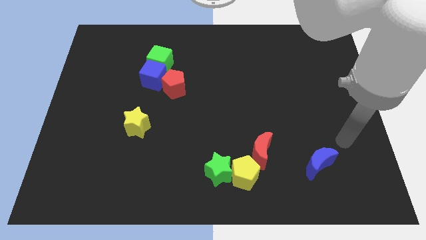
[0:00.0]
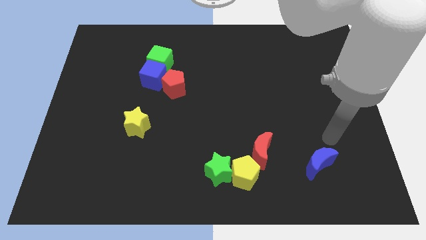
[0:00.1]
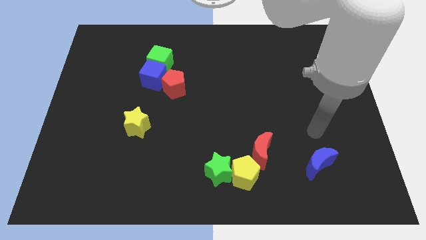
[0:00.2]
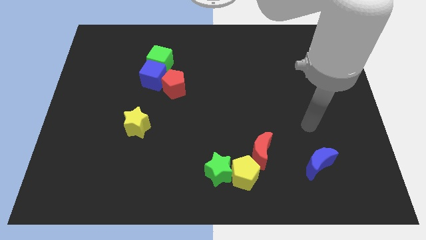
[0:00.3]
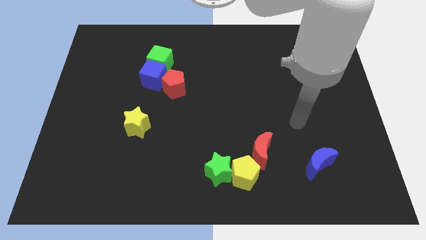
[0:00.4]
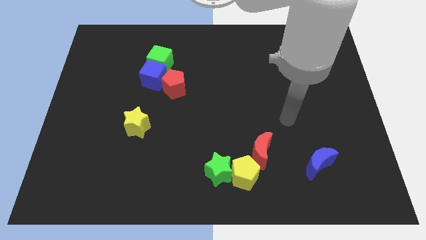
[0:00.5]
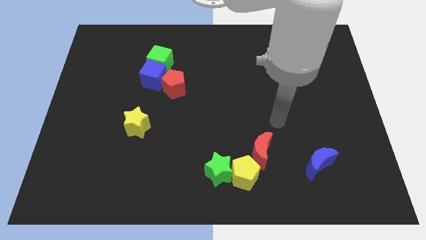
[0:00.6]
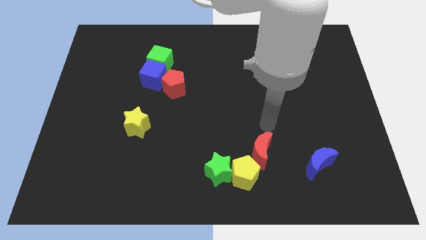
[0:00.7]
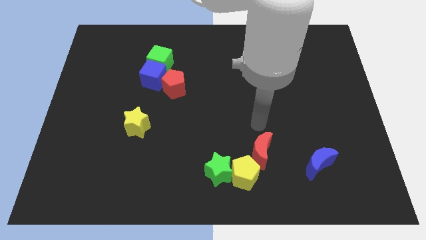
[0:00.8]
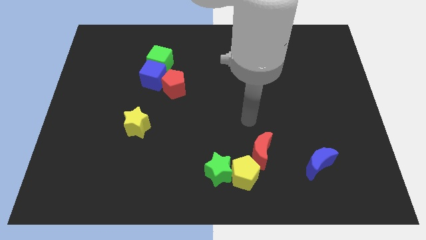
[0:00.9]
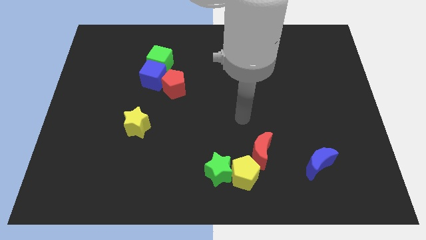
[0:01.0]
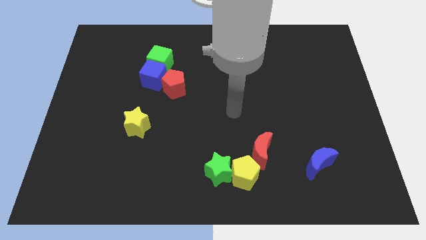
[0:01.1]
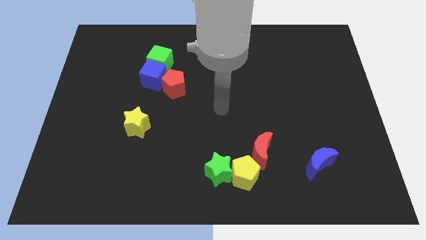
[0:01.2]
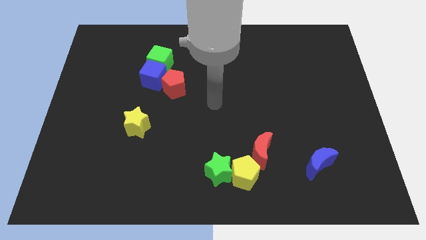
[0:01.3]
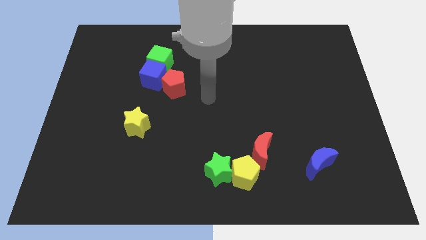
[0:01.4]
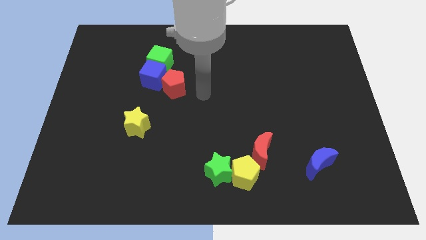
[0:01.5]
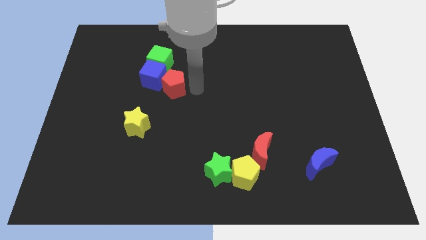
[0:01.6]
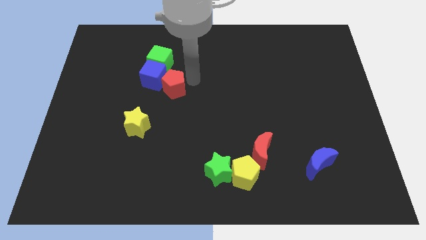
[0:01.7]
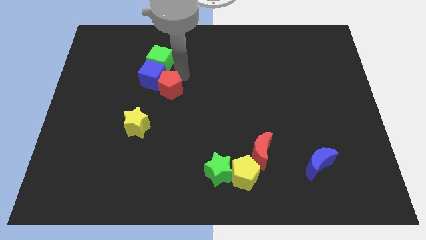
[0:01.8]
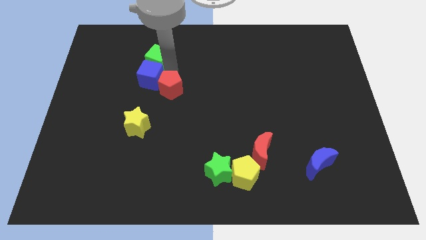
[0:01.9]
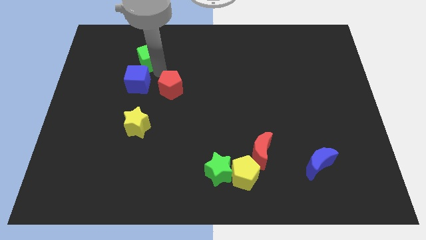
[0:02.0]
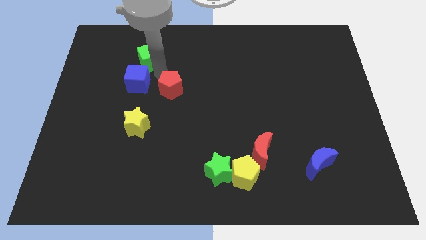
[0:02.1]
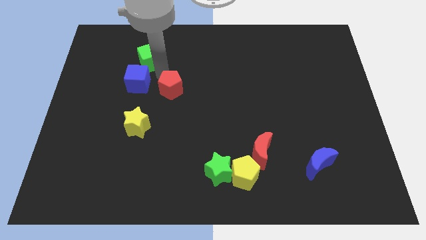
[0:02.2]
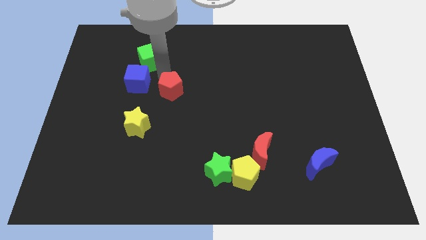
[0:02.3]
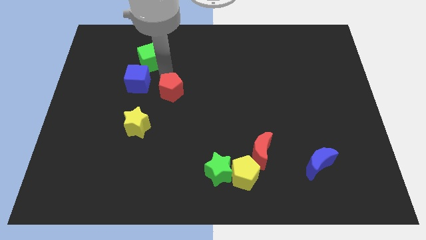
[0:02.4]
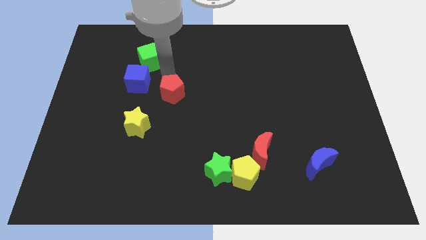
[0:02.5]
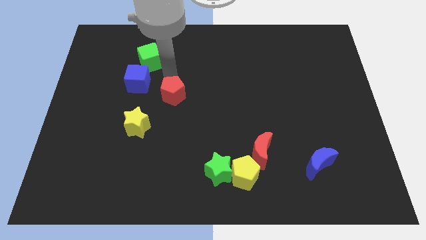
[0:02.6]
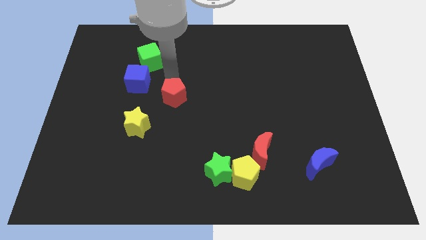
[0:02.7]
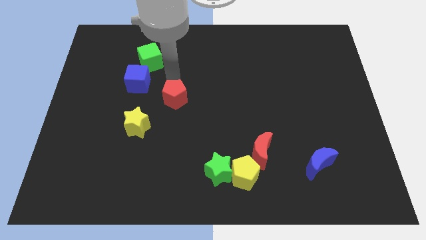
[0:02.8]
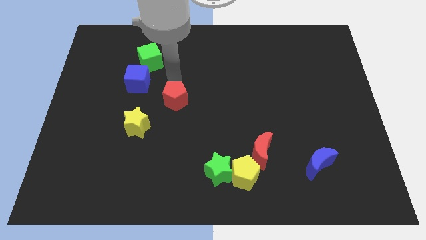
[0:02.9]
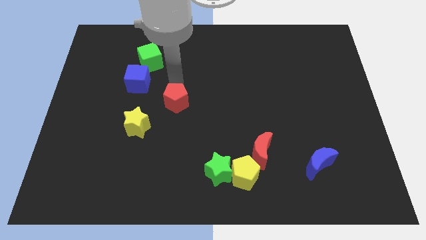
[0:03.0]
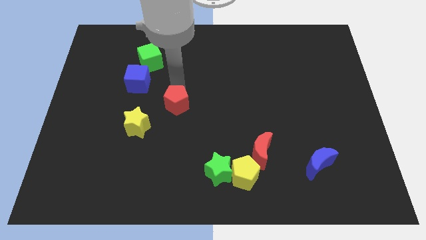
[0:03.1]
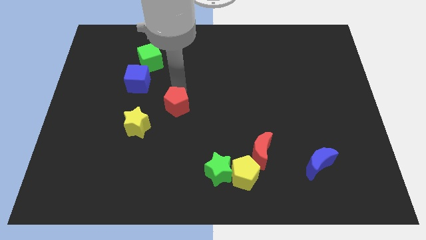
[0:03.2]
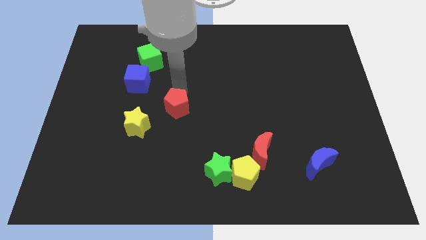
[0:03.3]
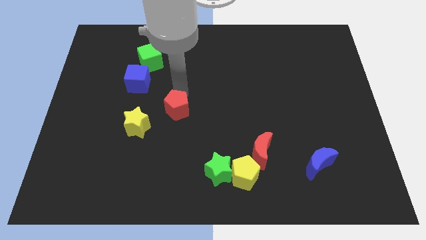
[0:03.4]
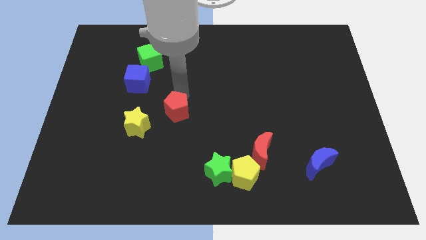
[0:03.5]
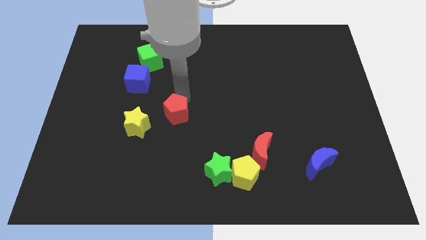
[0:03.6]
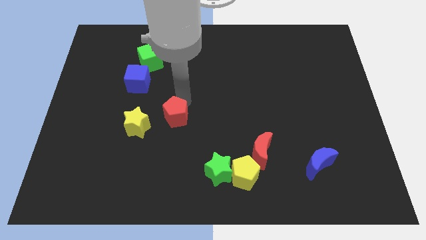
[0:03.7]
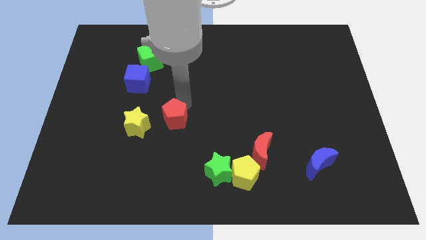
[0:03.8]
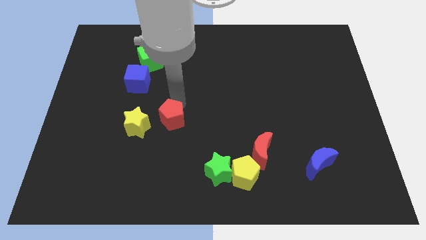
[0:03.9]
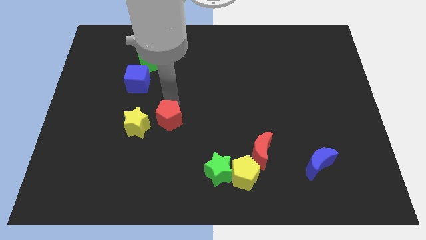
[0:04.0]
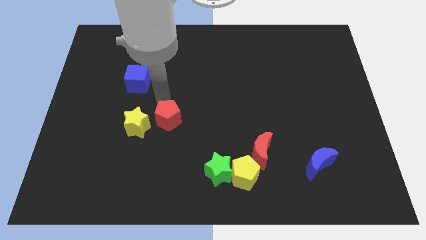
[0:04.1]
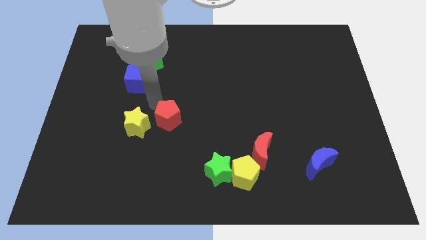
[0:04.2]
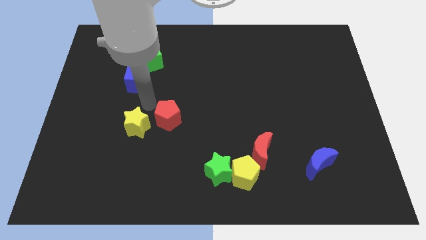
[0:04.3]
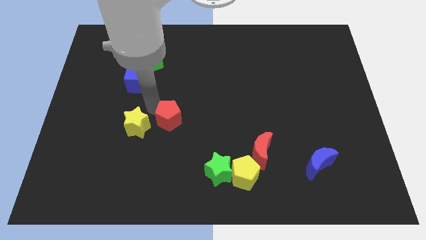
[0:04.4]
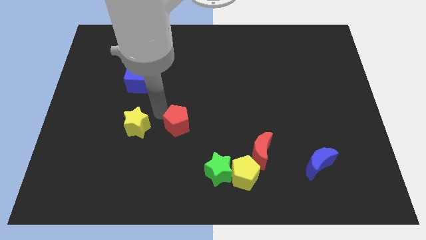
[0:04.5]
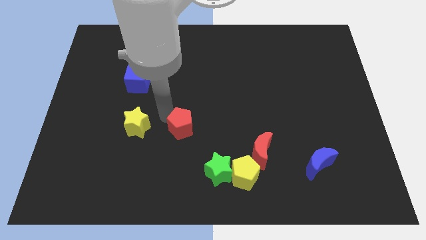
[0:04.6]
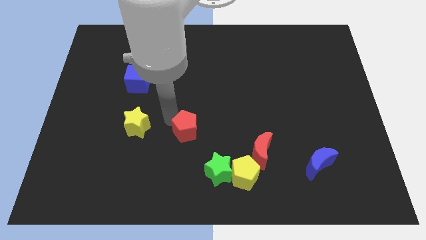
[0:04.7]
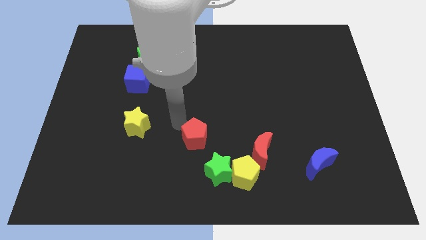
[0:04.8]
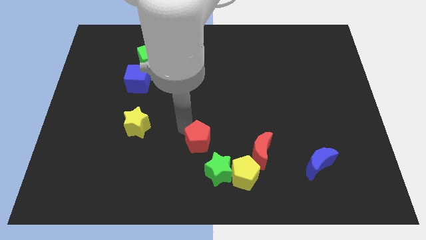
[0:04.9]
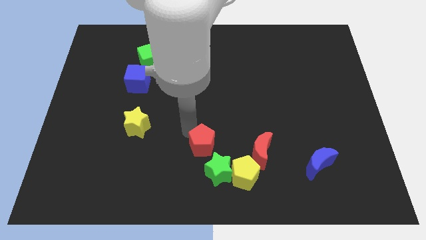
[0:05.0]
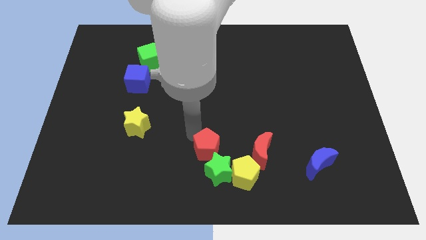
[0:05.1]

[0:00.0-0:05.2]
move the red pentagon to the green star
